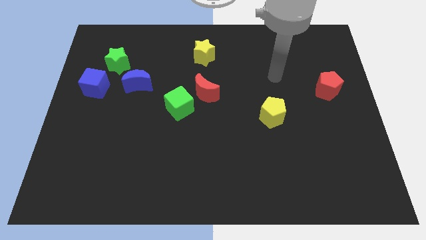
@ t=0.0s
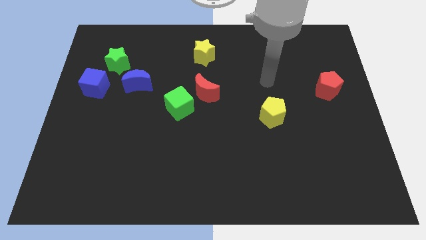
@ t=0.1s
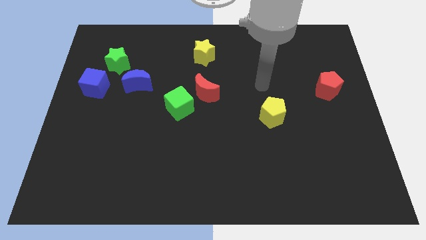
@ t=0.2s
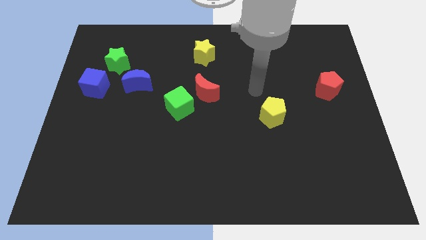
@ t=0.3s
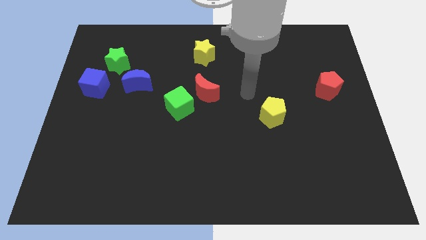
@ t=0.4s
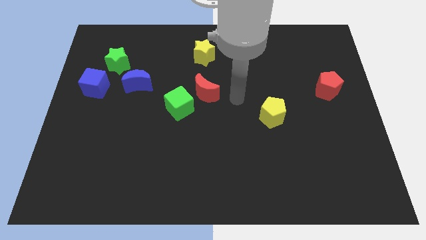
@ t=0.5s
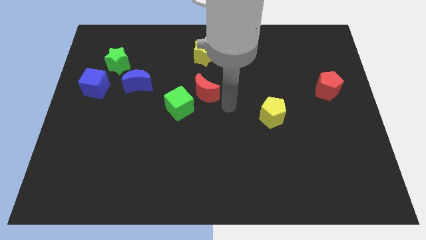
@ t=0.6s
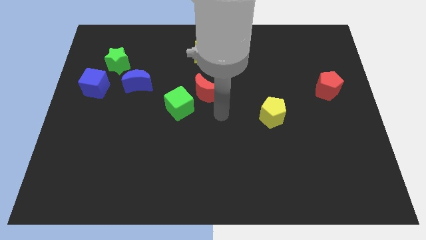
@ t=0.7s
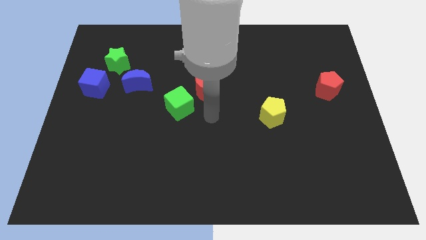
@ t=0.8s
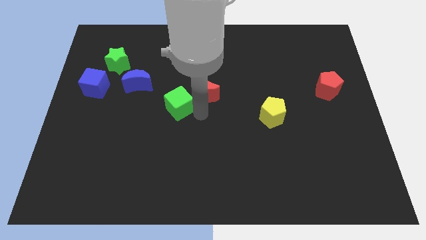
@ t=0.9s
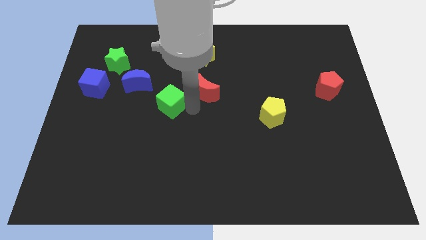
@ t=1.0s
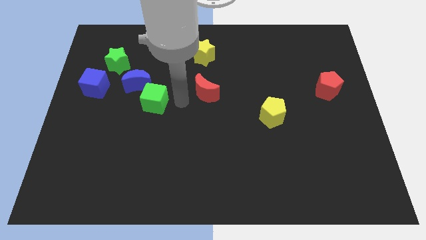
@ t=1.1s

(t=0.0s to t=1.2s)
separate the red moon from the green cube

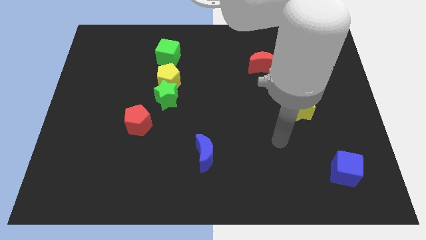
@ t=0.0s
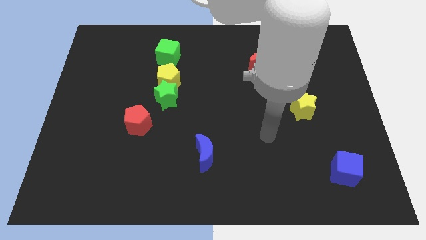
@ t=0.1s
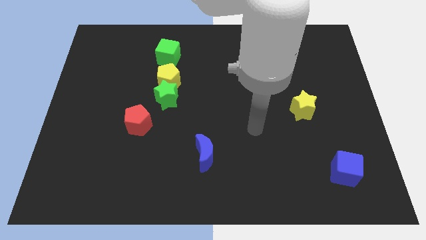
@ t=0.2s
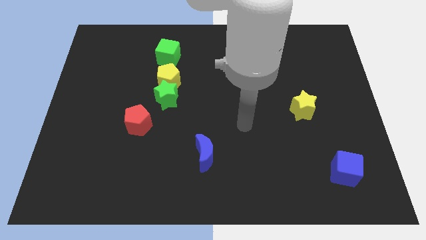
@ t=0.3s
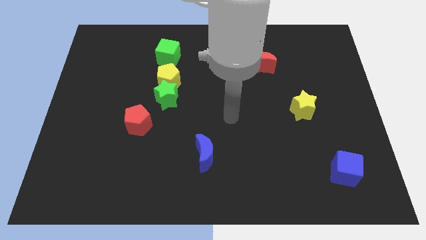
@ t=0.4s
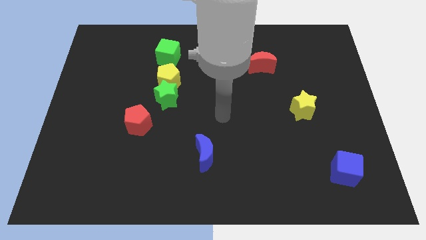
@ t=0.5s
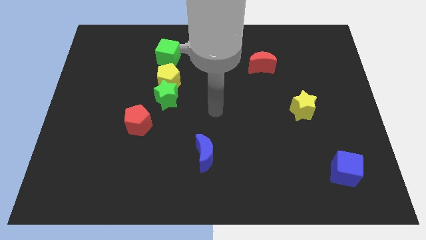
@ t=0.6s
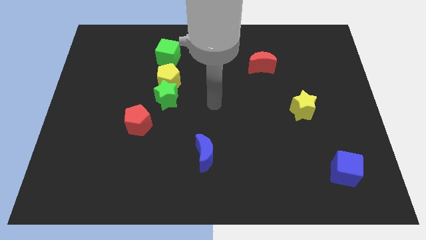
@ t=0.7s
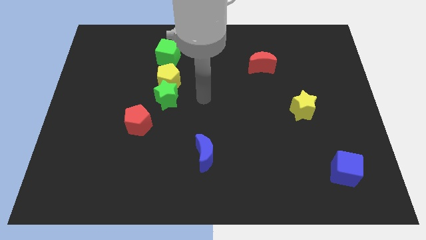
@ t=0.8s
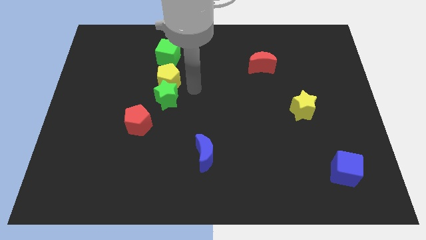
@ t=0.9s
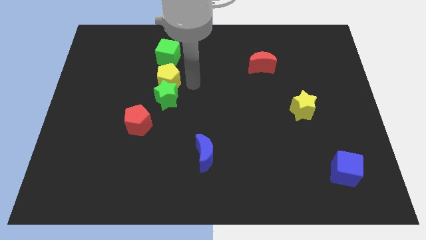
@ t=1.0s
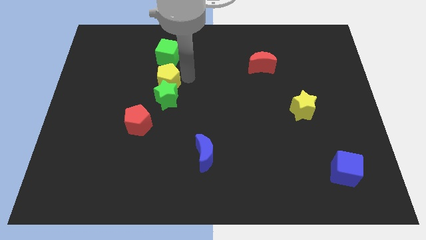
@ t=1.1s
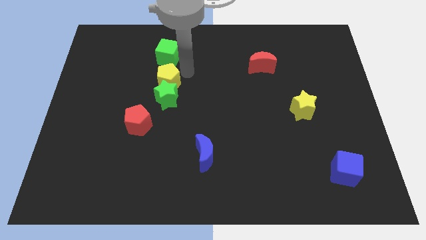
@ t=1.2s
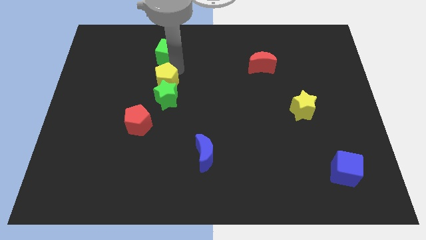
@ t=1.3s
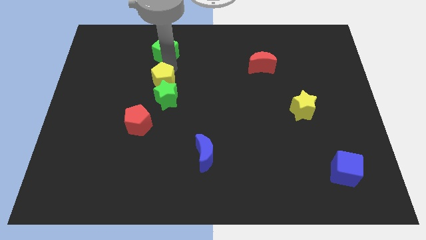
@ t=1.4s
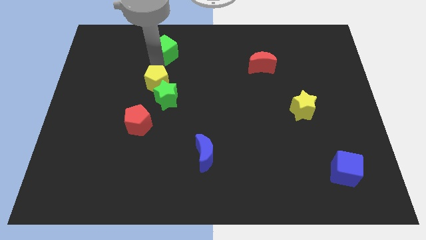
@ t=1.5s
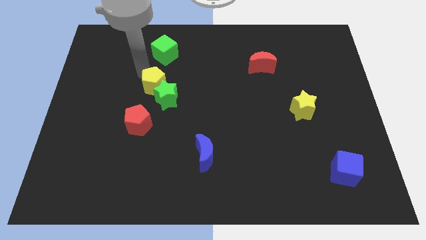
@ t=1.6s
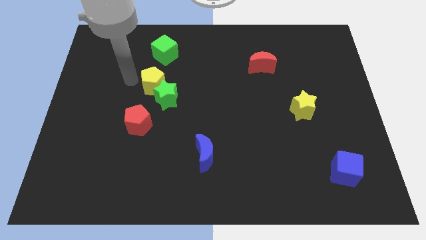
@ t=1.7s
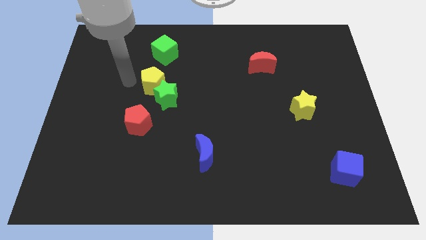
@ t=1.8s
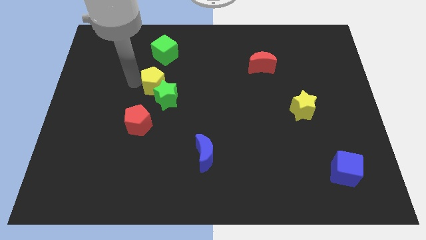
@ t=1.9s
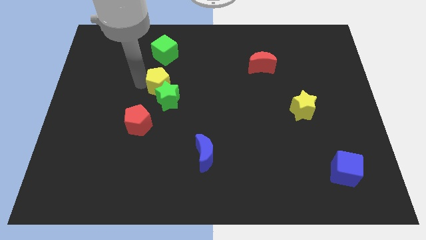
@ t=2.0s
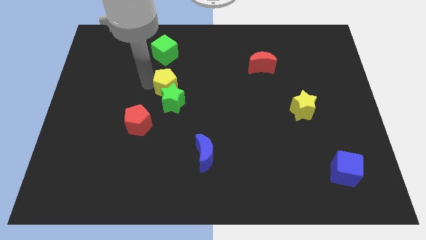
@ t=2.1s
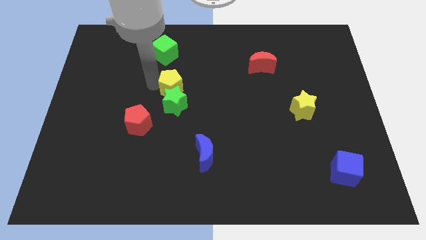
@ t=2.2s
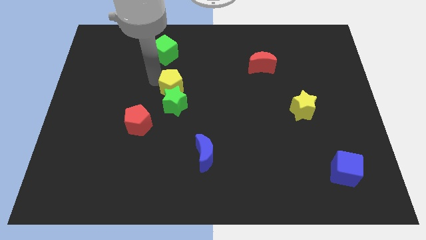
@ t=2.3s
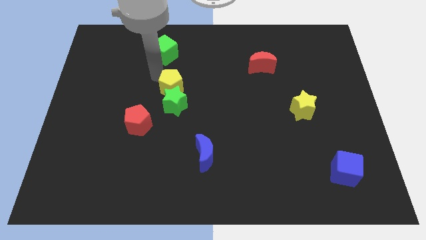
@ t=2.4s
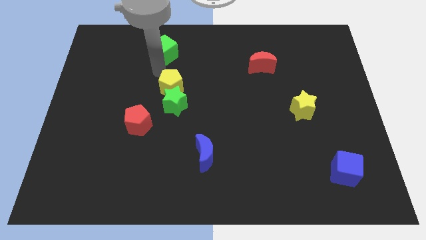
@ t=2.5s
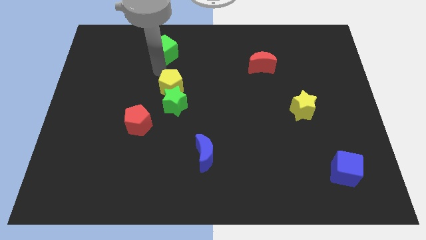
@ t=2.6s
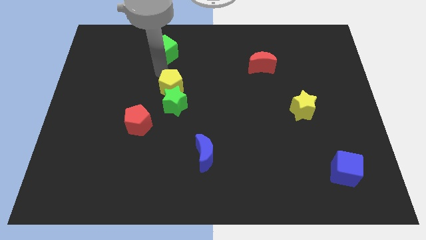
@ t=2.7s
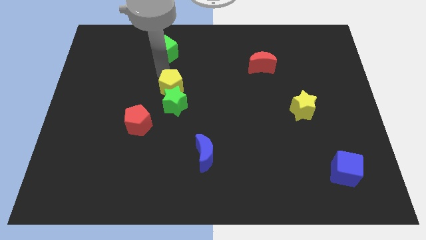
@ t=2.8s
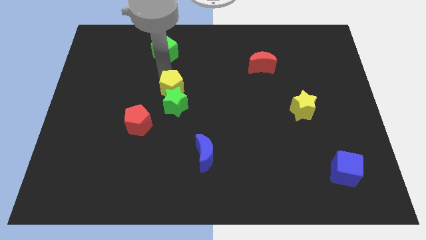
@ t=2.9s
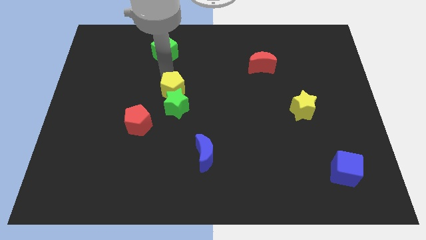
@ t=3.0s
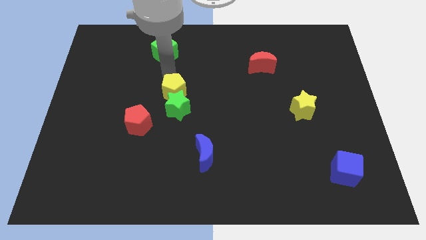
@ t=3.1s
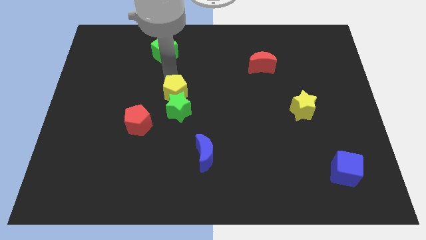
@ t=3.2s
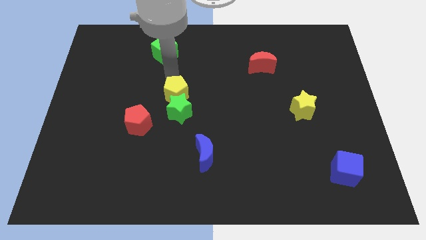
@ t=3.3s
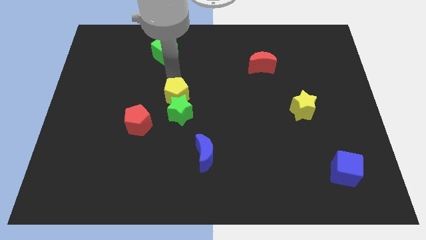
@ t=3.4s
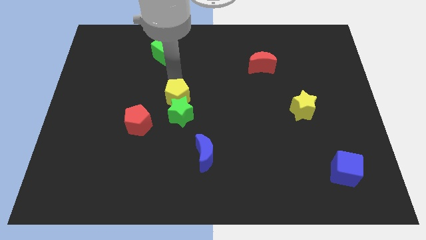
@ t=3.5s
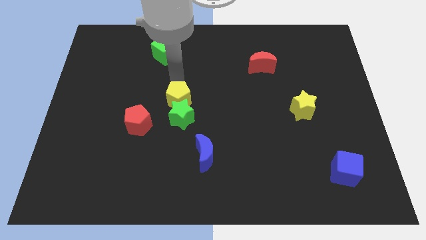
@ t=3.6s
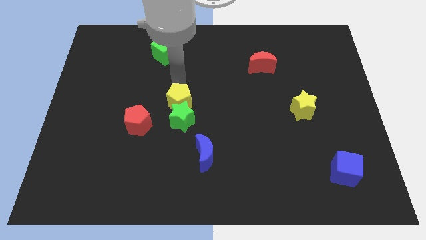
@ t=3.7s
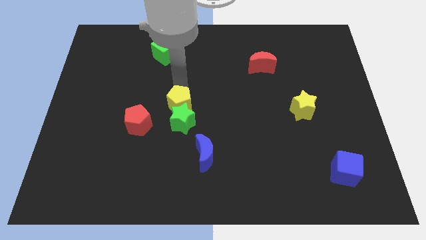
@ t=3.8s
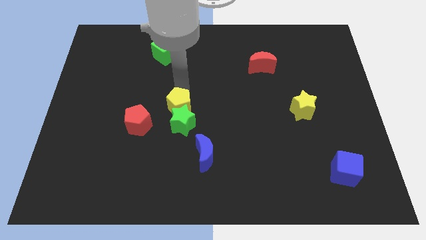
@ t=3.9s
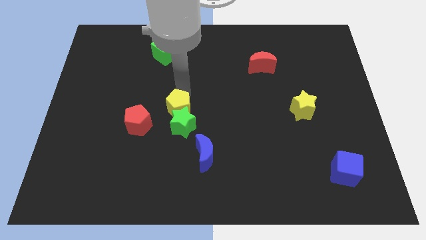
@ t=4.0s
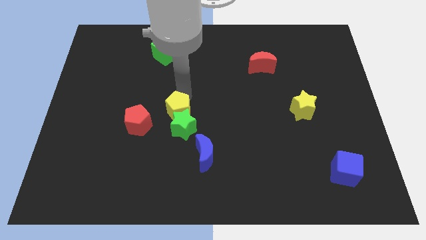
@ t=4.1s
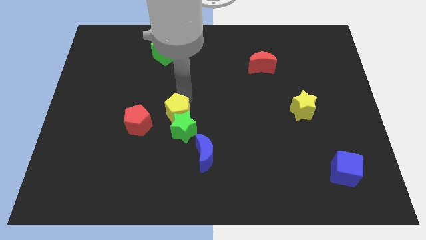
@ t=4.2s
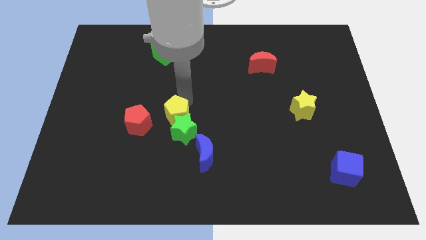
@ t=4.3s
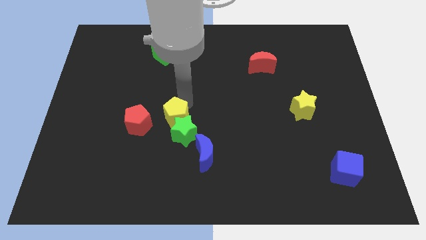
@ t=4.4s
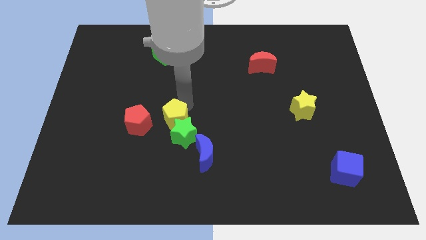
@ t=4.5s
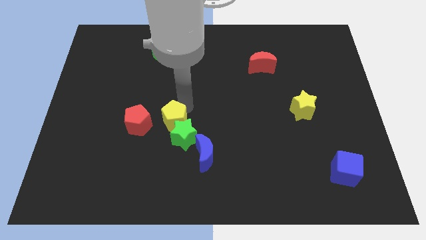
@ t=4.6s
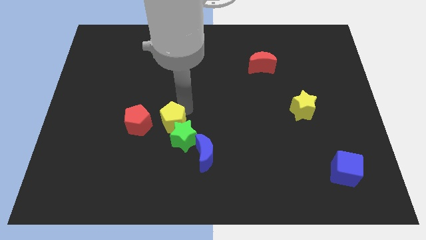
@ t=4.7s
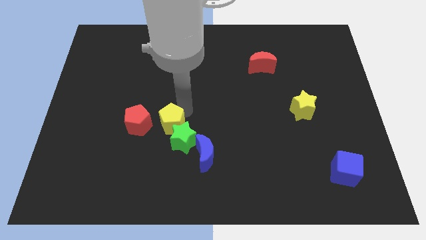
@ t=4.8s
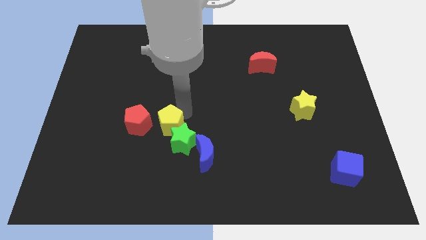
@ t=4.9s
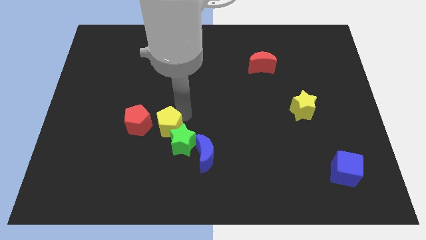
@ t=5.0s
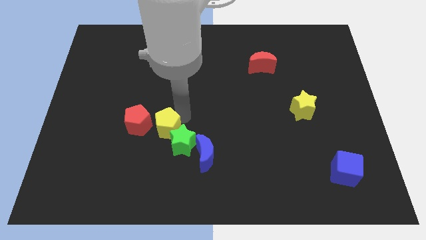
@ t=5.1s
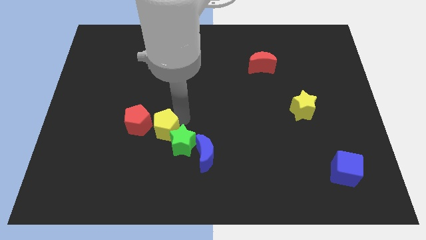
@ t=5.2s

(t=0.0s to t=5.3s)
move the yellow pentagon away from the green star and green cube

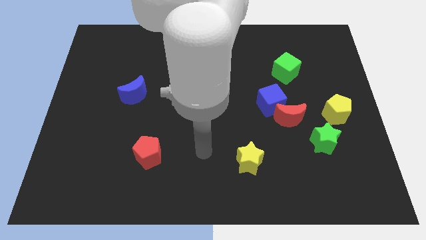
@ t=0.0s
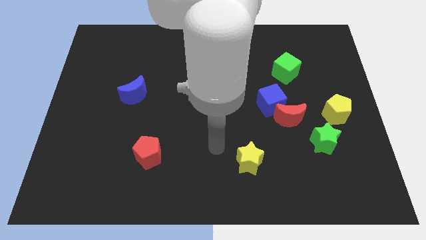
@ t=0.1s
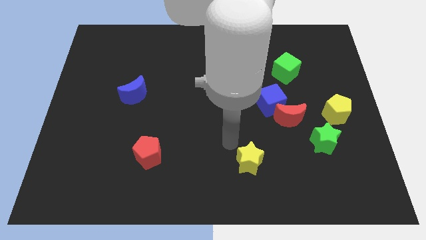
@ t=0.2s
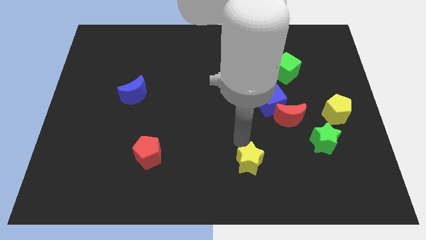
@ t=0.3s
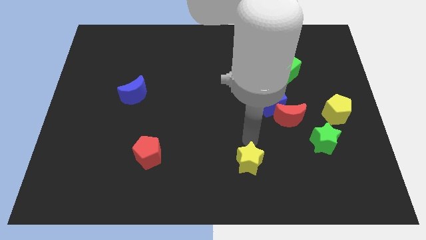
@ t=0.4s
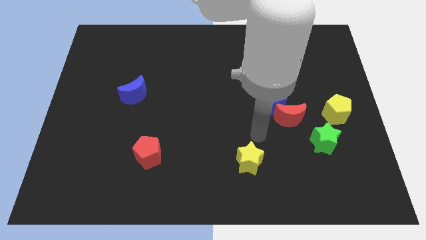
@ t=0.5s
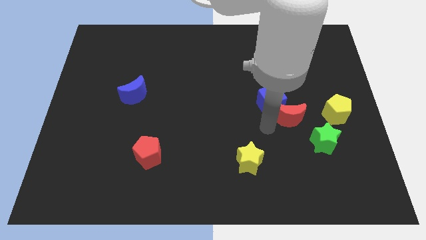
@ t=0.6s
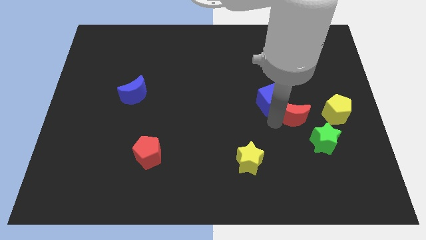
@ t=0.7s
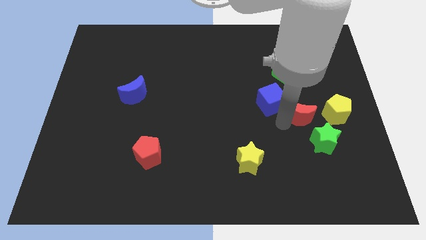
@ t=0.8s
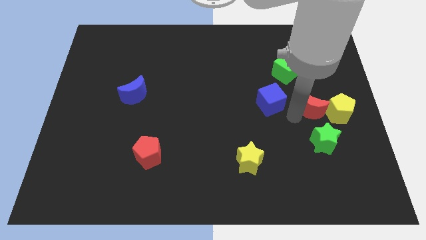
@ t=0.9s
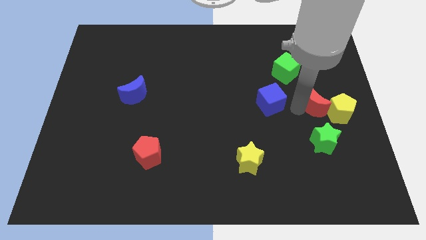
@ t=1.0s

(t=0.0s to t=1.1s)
pull the blue cube apart from the red moon

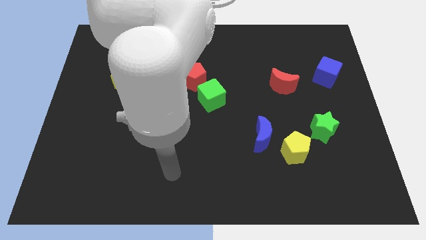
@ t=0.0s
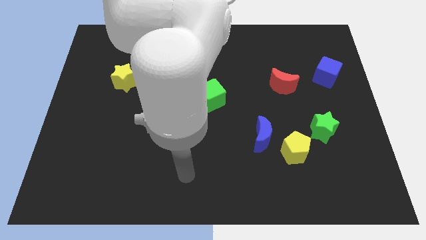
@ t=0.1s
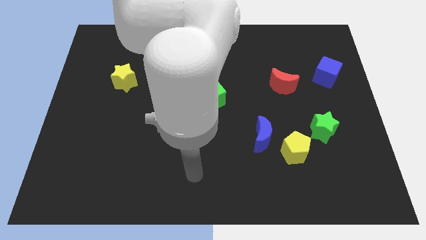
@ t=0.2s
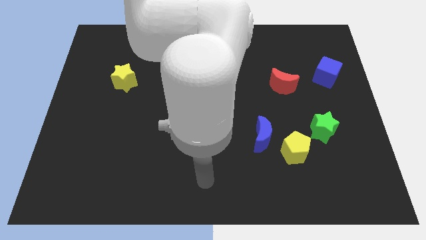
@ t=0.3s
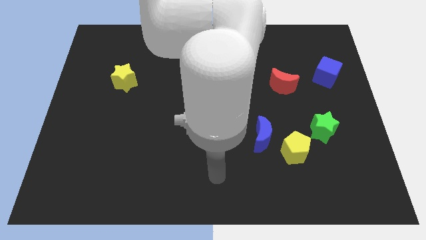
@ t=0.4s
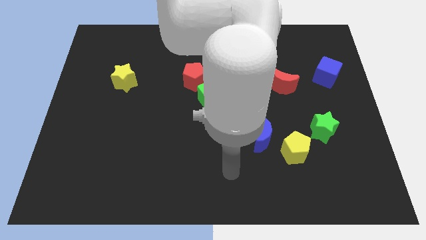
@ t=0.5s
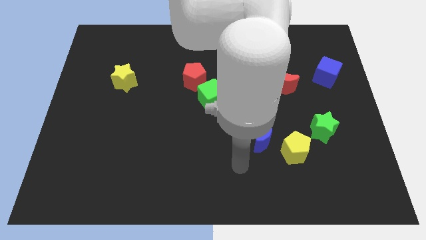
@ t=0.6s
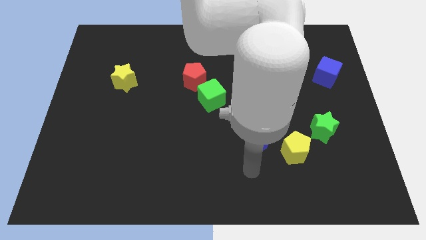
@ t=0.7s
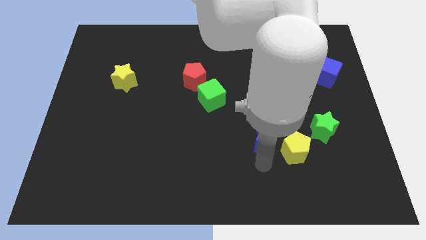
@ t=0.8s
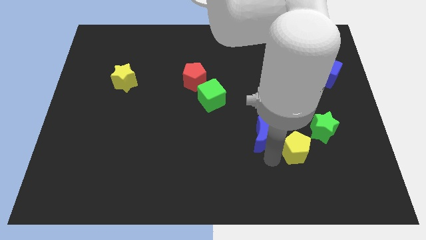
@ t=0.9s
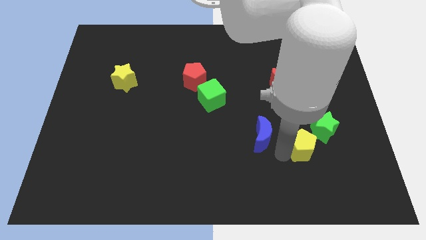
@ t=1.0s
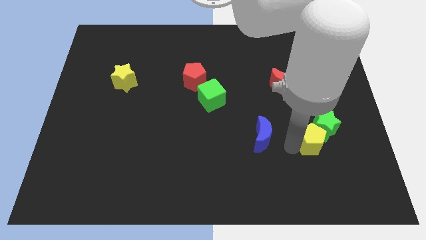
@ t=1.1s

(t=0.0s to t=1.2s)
move the blue moon away from the yellow pentagon

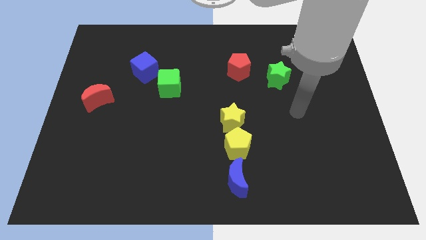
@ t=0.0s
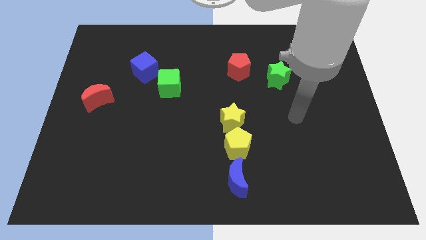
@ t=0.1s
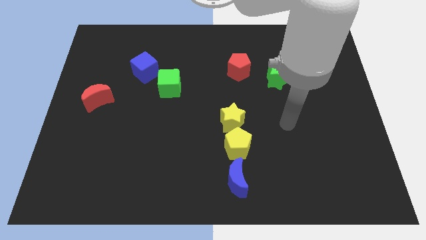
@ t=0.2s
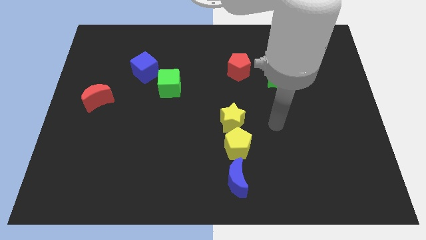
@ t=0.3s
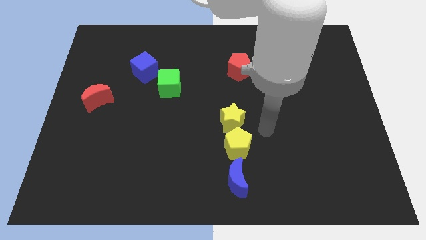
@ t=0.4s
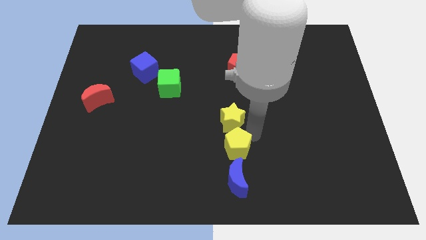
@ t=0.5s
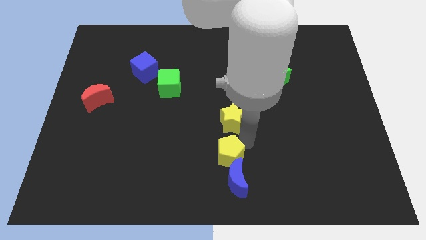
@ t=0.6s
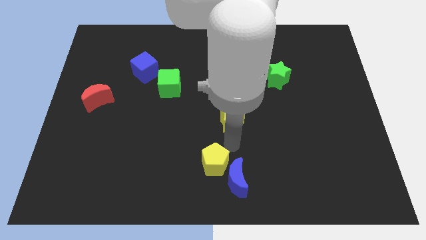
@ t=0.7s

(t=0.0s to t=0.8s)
separate the yellow star from the yellow pentagon
